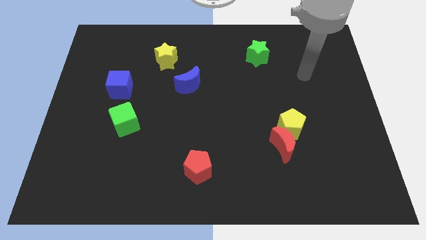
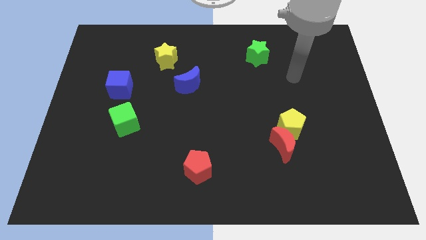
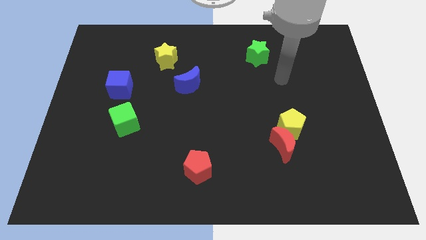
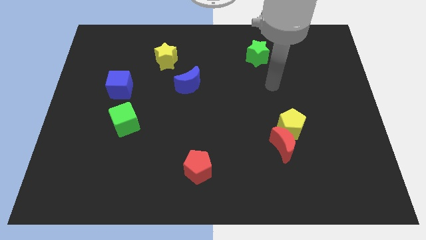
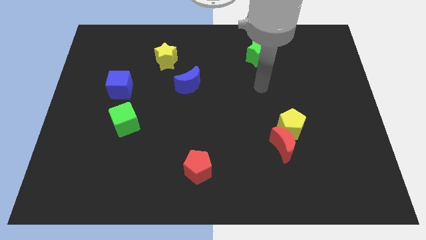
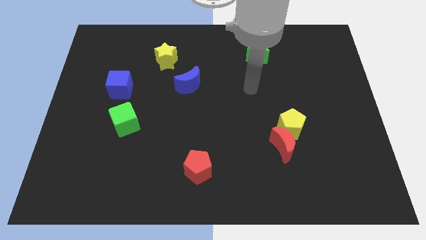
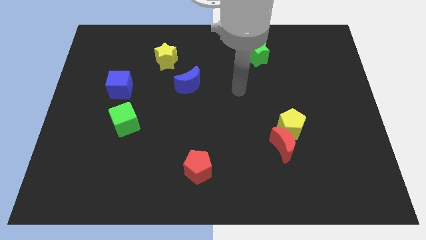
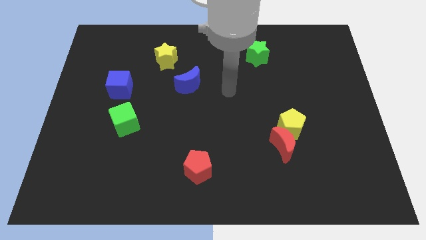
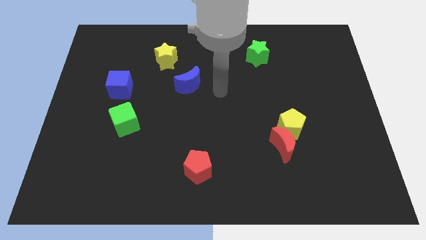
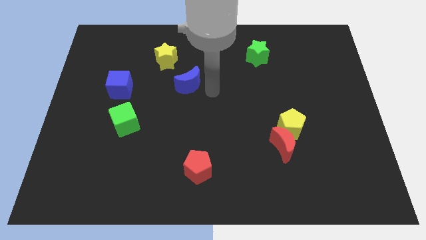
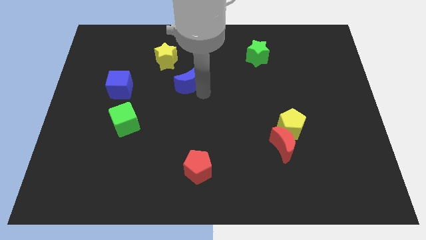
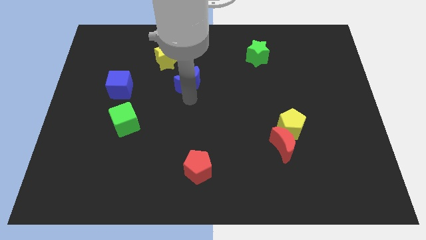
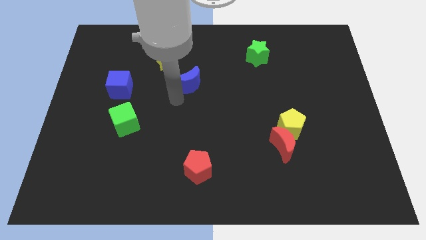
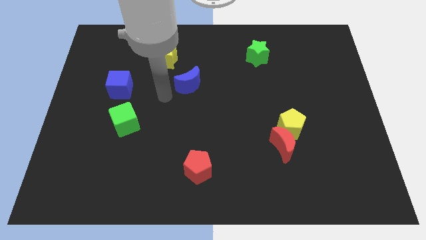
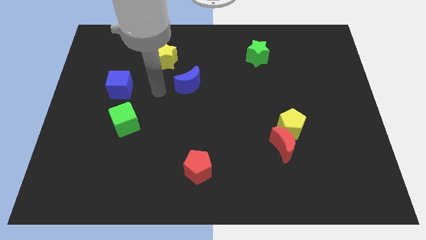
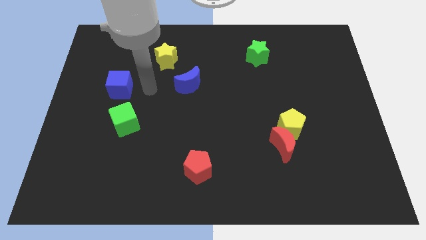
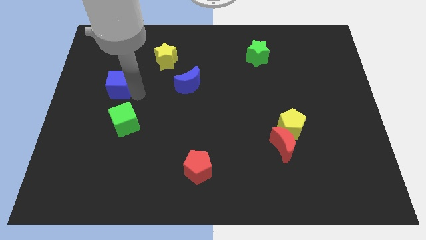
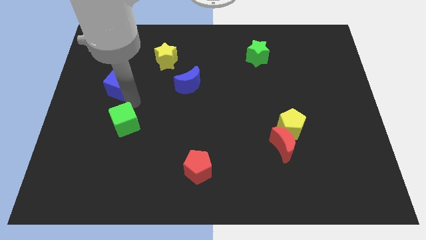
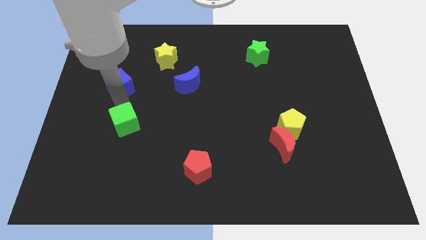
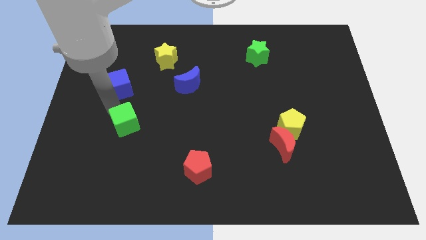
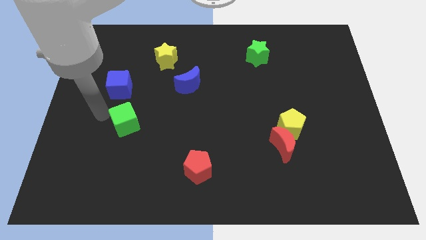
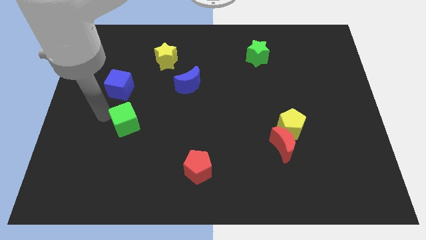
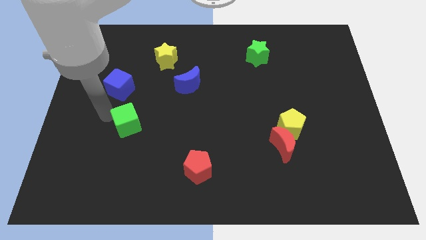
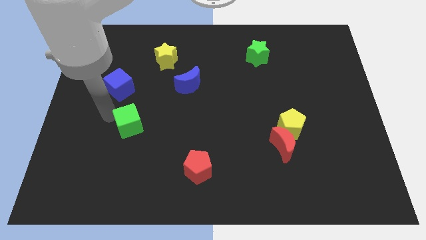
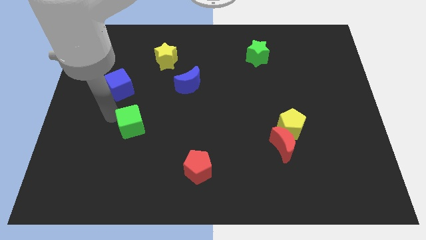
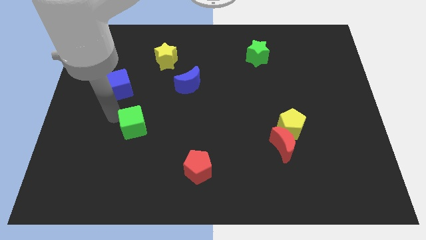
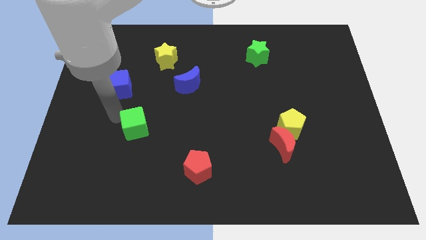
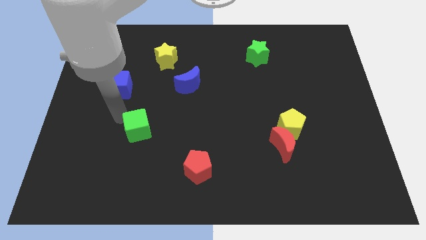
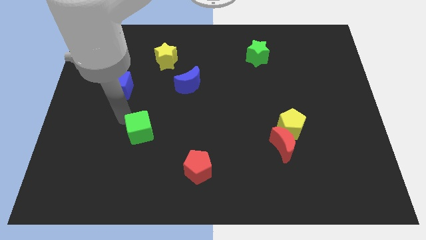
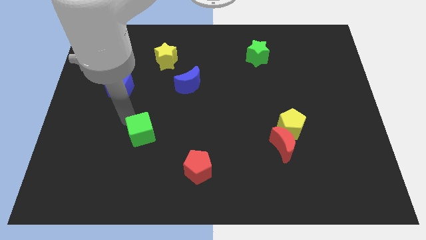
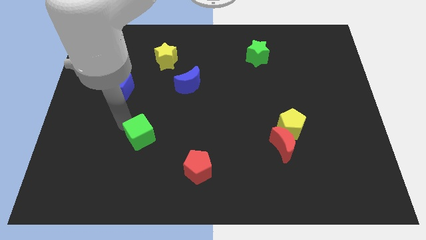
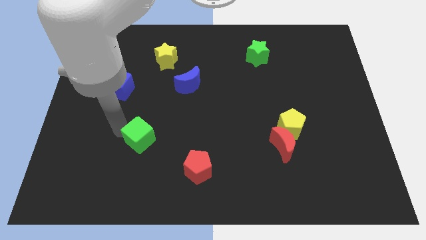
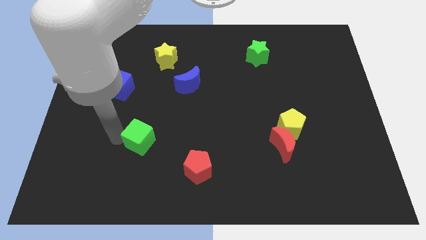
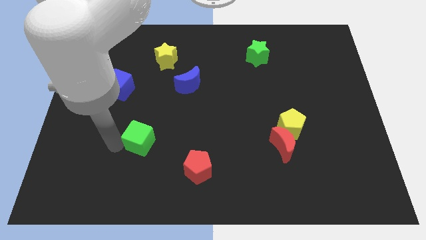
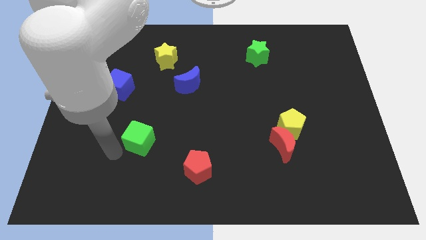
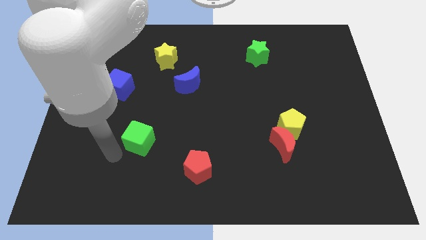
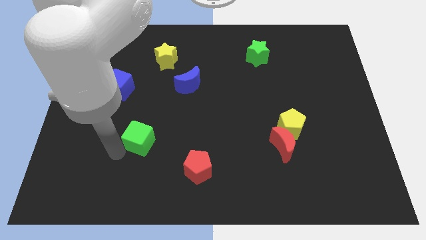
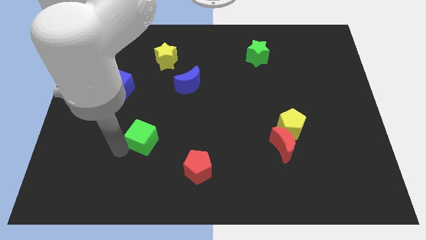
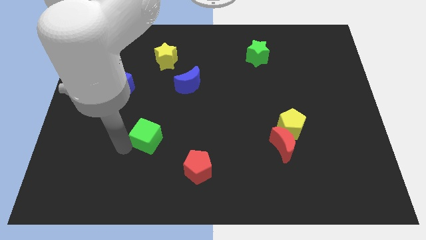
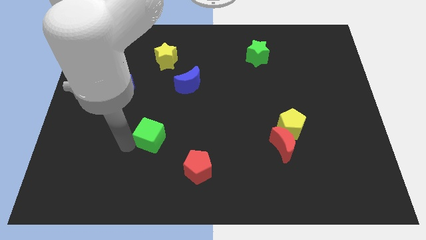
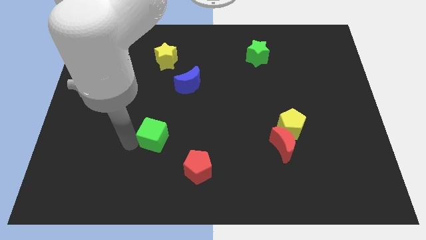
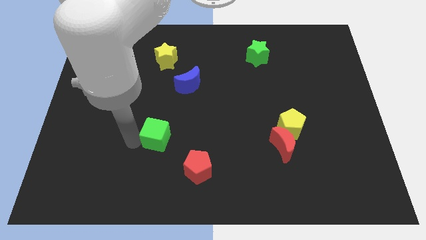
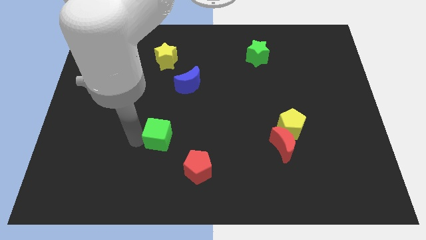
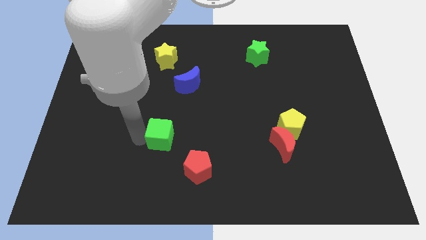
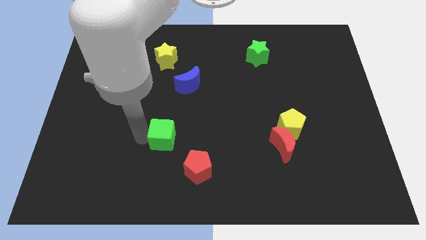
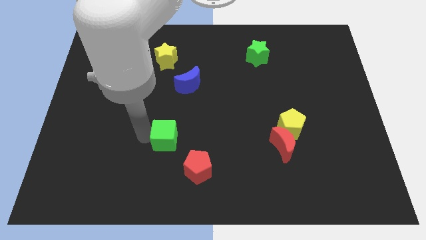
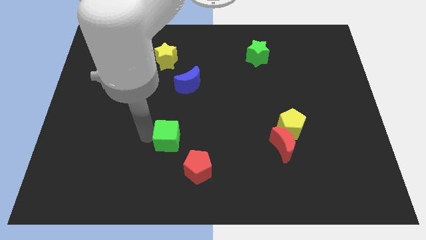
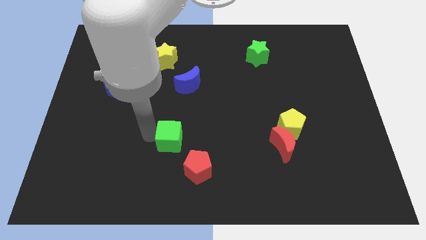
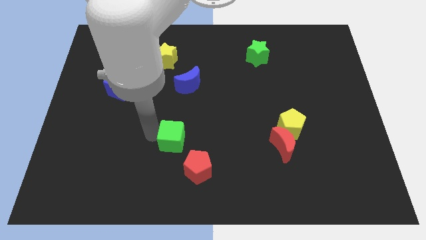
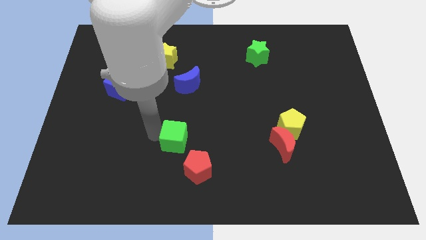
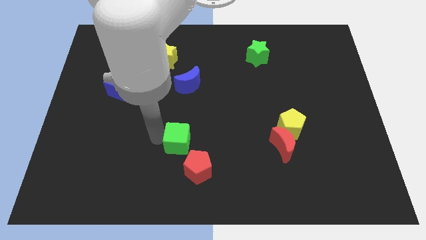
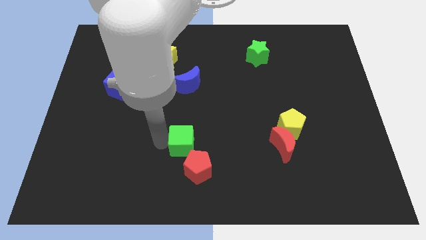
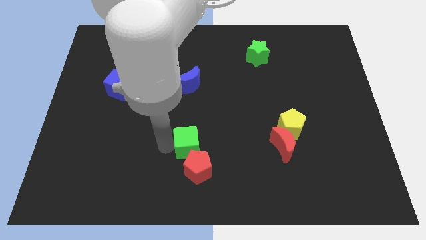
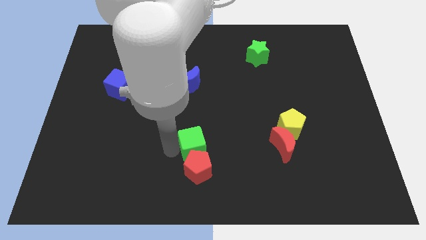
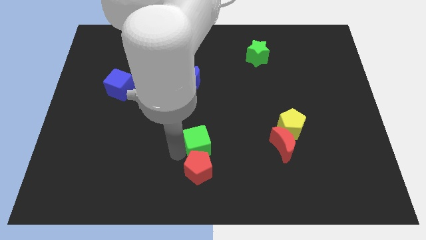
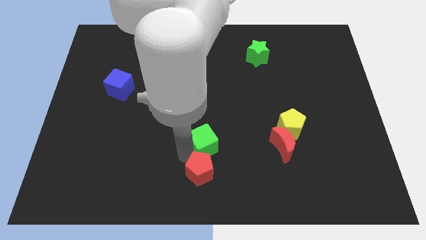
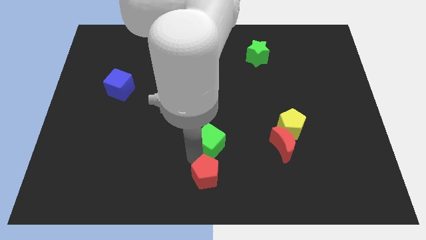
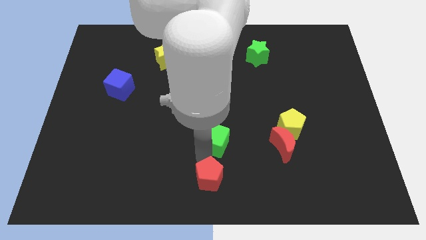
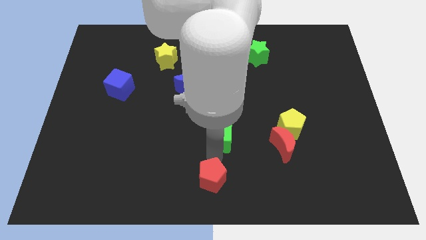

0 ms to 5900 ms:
slide the green cube to the right

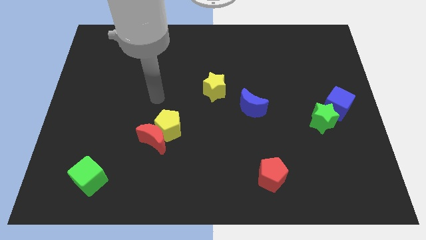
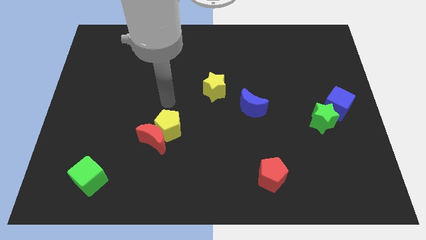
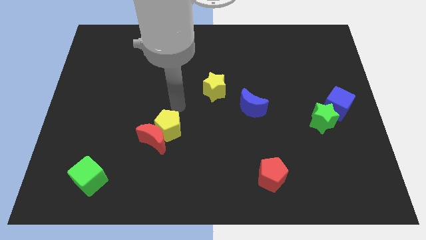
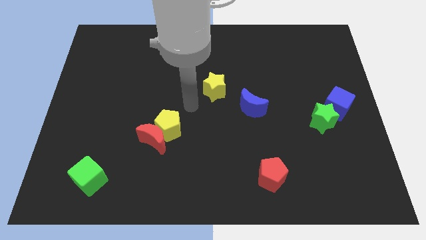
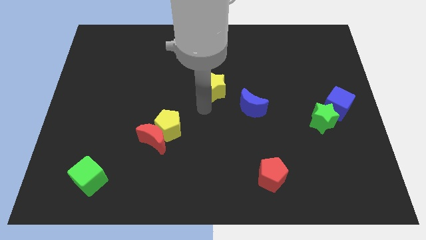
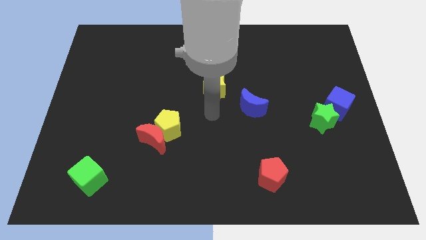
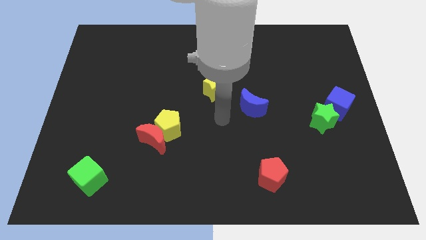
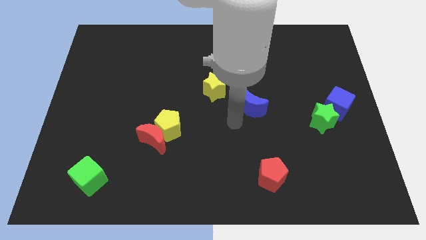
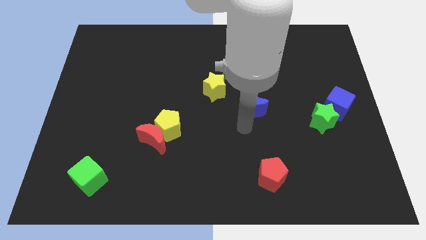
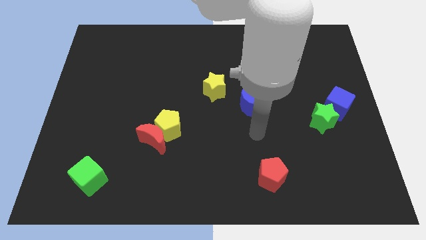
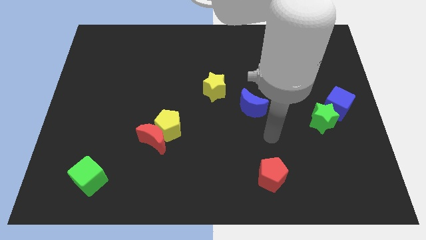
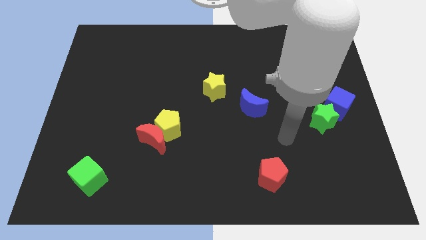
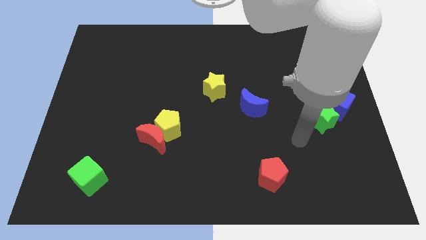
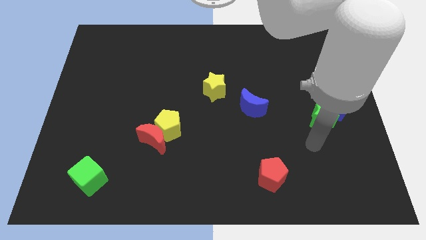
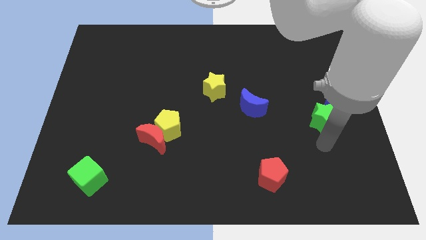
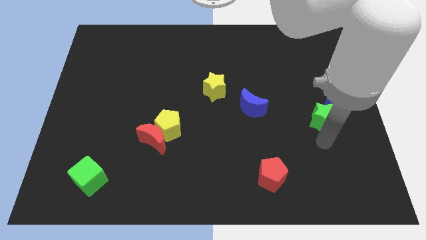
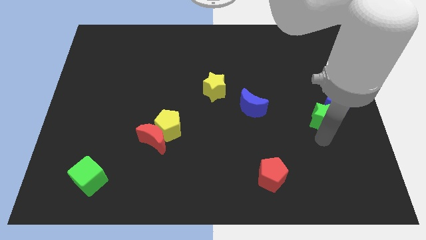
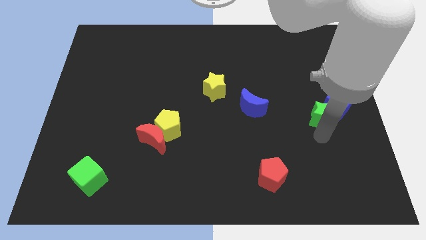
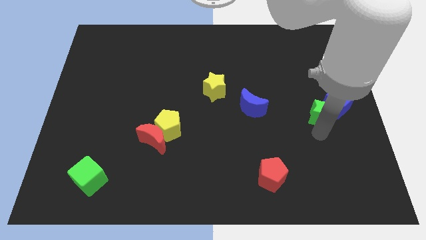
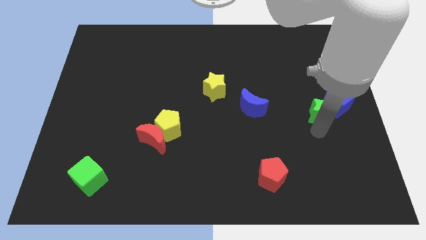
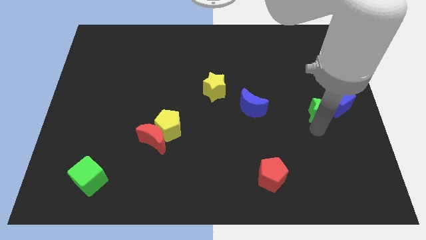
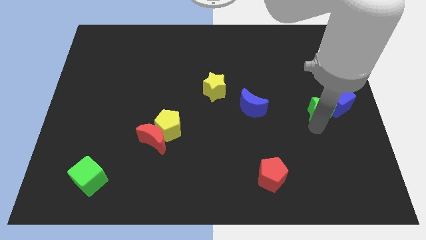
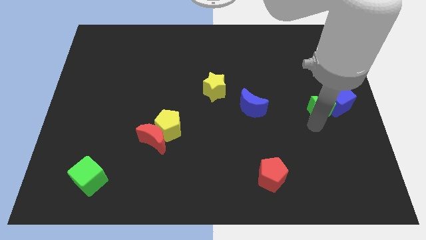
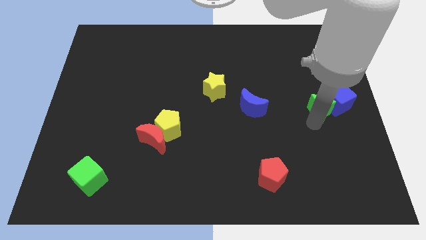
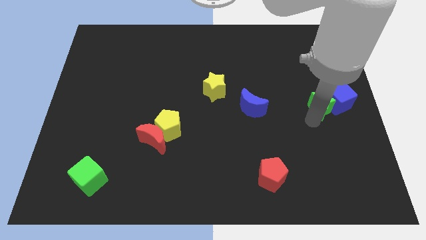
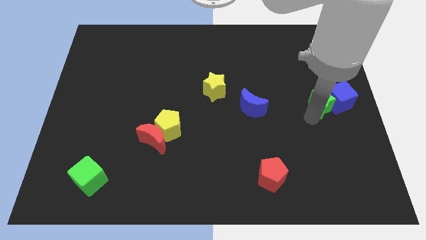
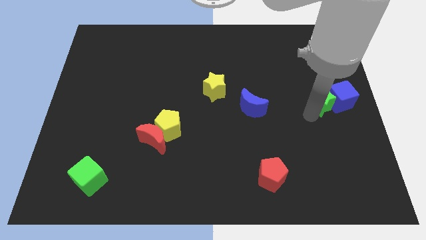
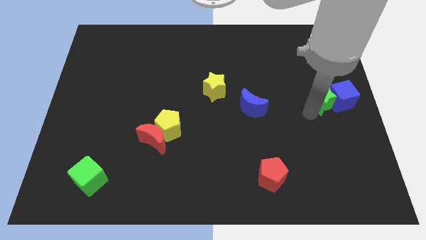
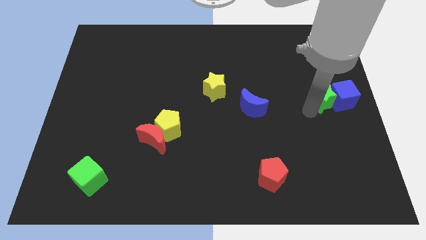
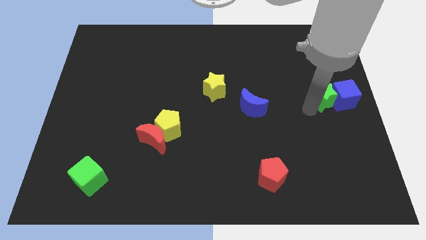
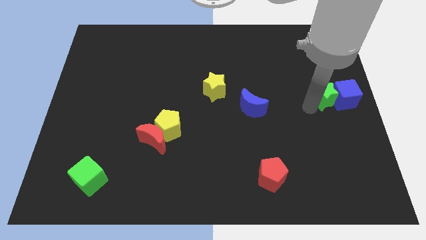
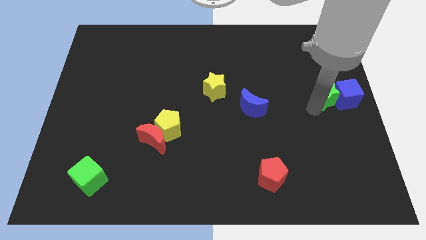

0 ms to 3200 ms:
slightly slide the green star up
